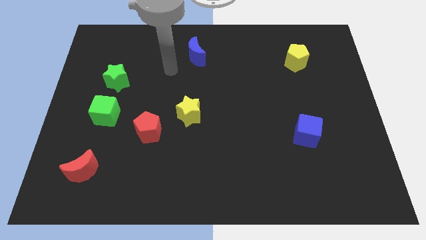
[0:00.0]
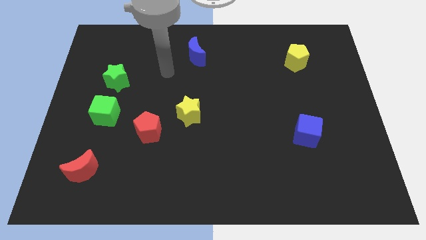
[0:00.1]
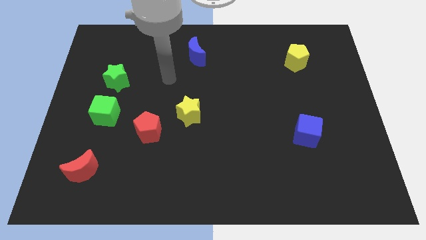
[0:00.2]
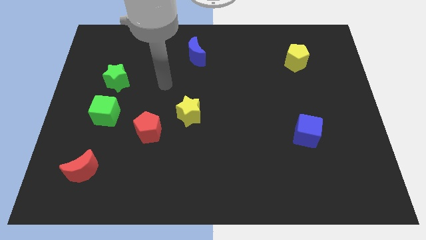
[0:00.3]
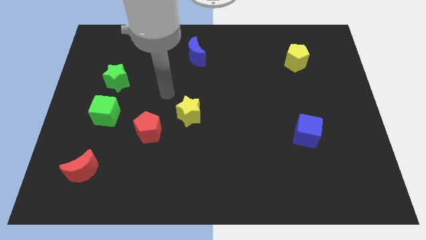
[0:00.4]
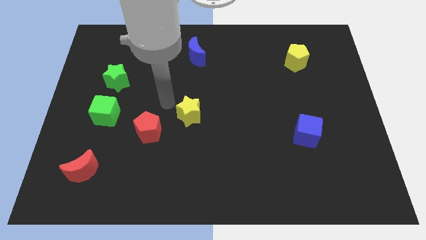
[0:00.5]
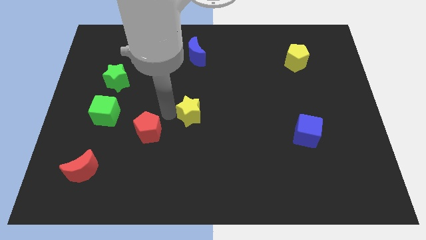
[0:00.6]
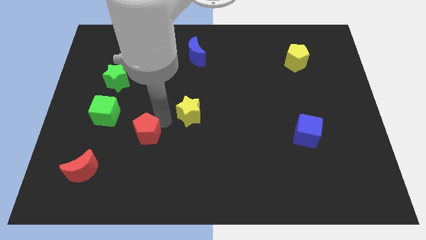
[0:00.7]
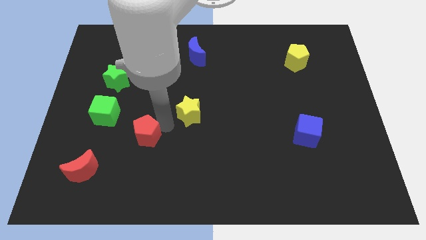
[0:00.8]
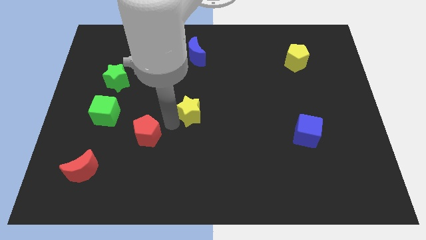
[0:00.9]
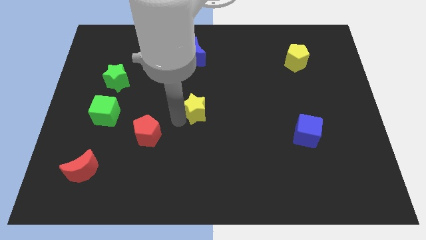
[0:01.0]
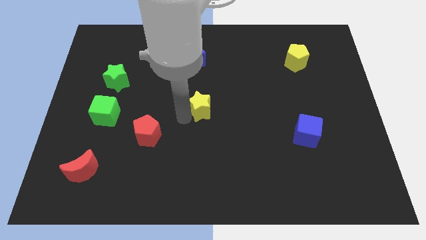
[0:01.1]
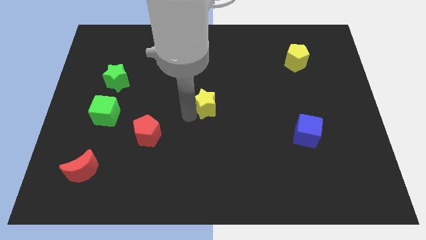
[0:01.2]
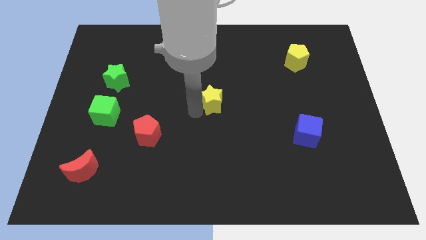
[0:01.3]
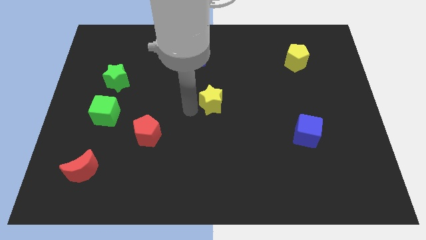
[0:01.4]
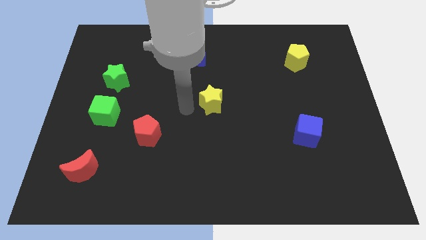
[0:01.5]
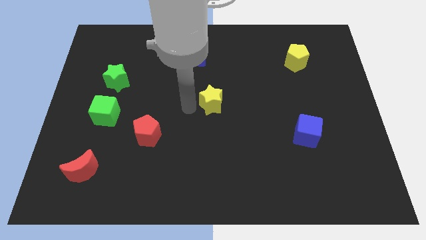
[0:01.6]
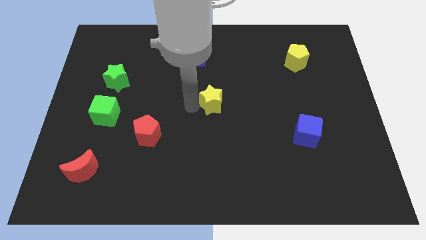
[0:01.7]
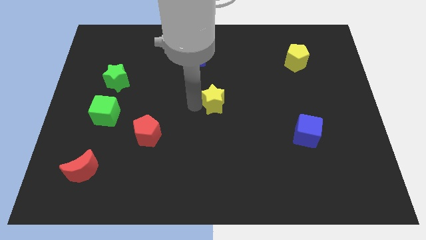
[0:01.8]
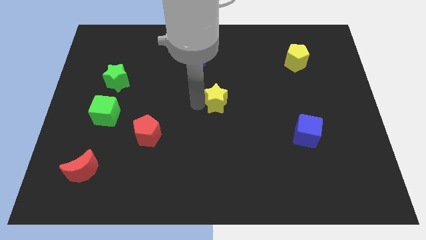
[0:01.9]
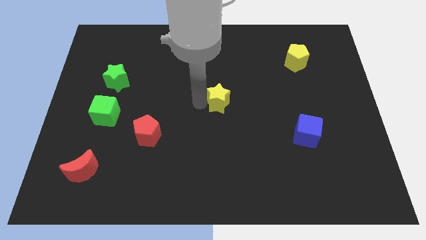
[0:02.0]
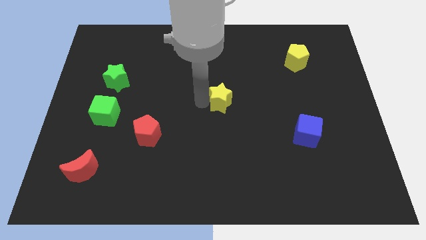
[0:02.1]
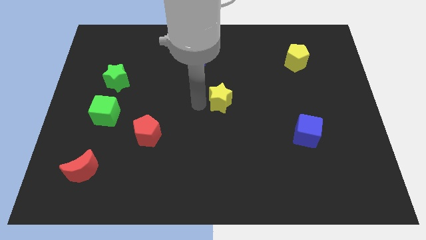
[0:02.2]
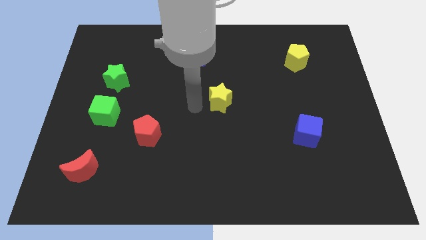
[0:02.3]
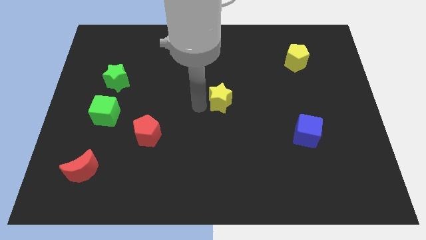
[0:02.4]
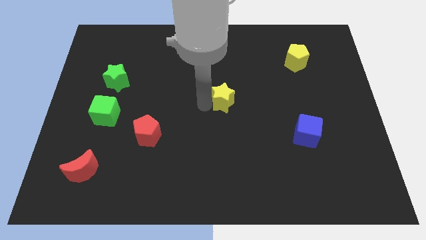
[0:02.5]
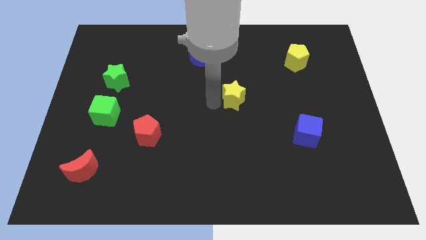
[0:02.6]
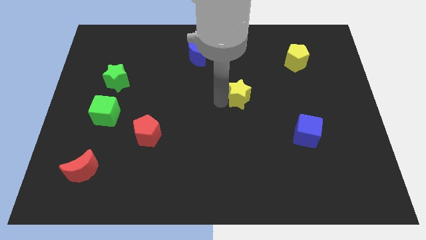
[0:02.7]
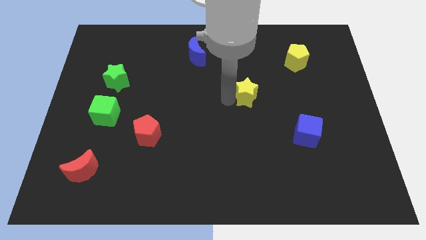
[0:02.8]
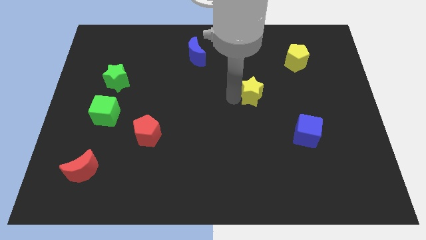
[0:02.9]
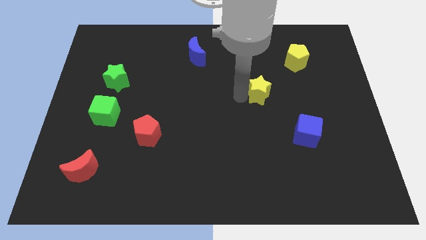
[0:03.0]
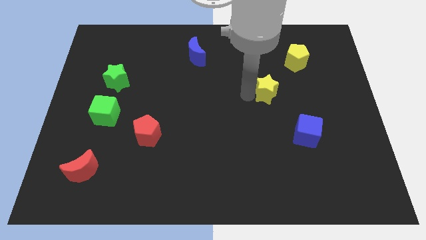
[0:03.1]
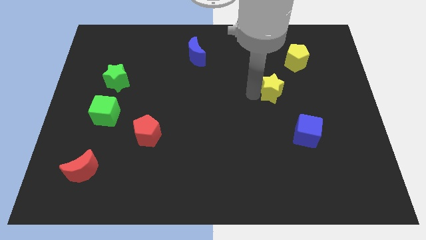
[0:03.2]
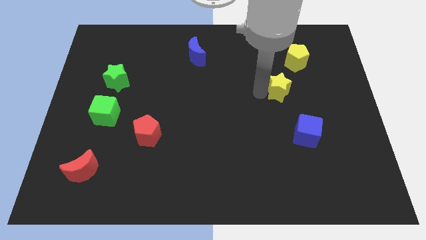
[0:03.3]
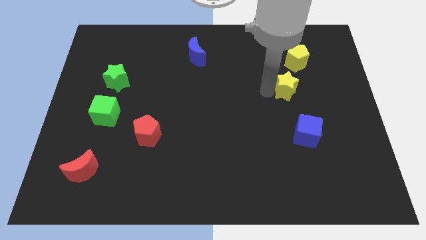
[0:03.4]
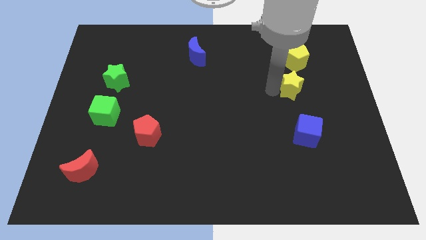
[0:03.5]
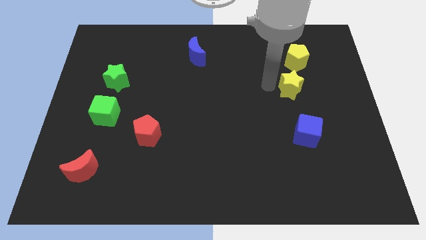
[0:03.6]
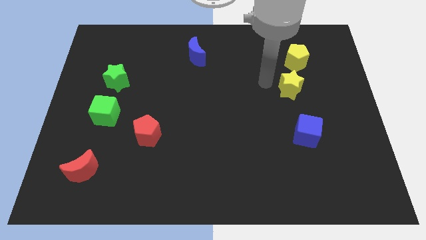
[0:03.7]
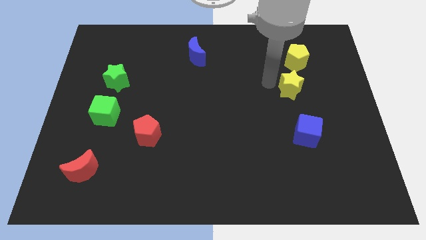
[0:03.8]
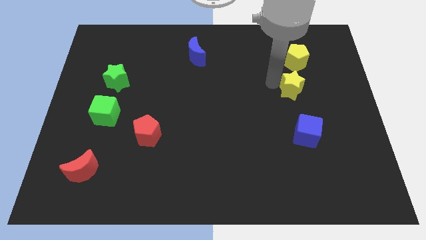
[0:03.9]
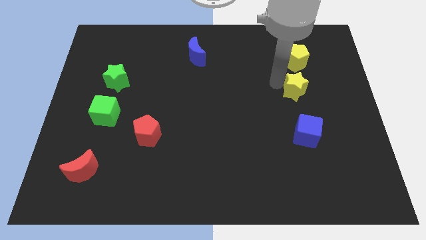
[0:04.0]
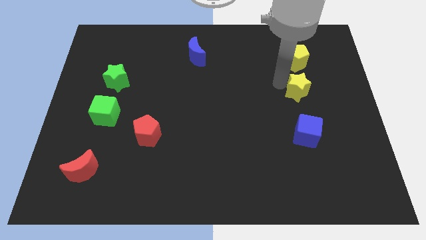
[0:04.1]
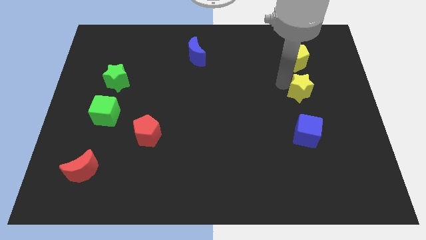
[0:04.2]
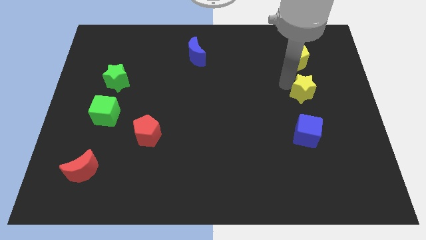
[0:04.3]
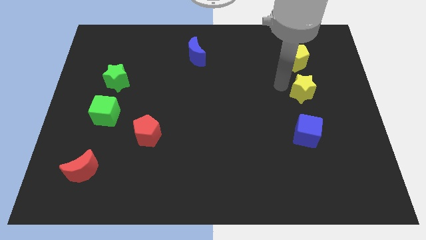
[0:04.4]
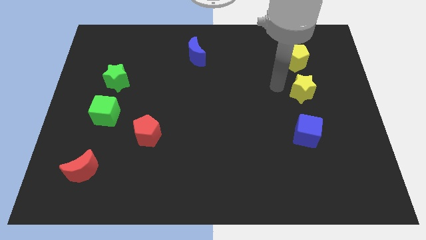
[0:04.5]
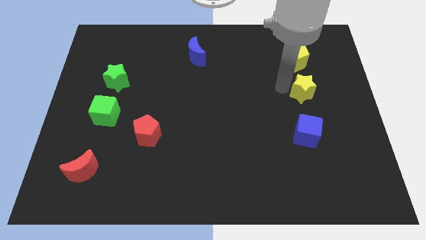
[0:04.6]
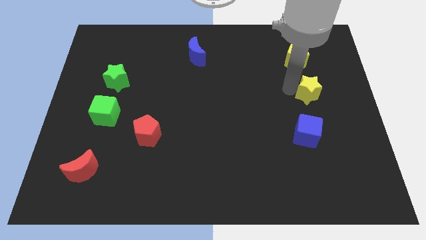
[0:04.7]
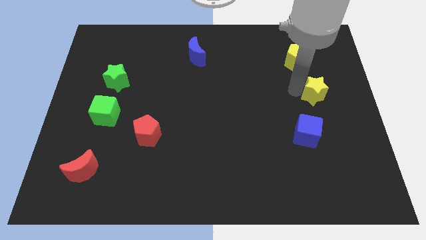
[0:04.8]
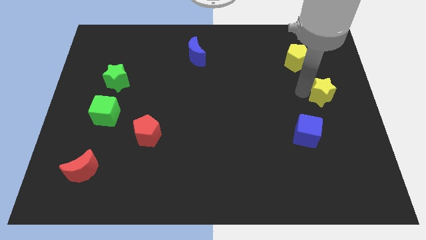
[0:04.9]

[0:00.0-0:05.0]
push the yellow star to the center right

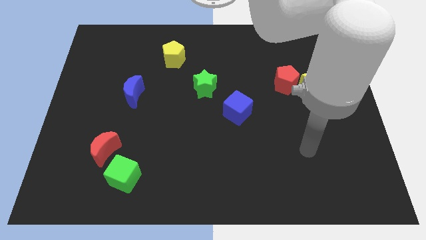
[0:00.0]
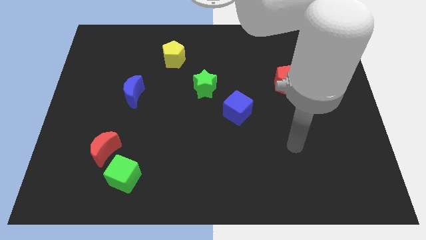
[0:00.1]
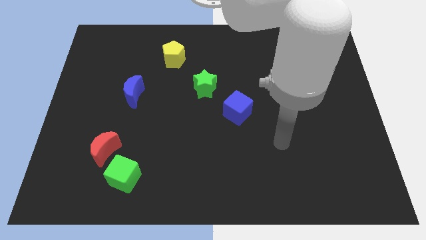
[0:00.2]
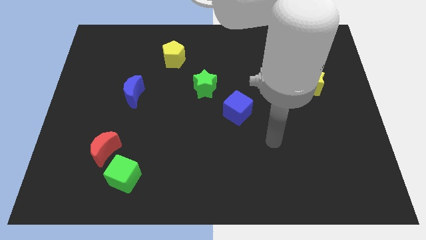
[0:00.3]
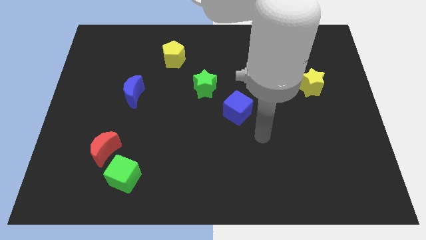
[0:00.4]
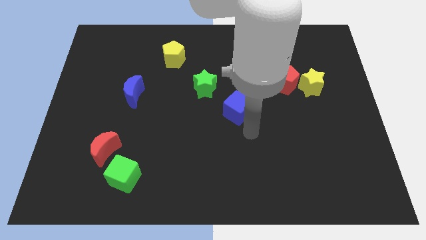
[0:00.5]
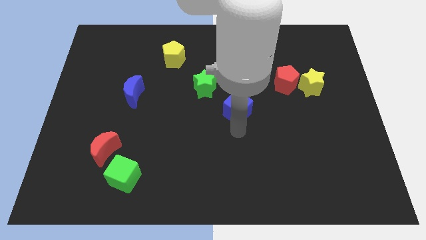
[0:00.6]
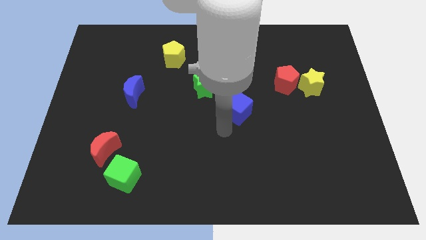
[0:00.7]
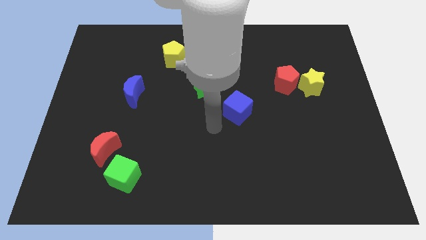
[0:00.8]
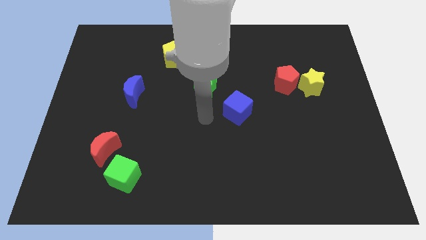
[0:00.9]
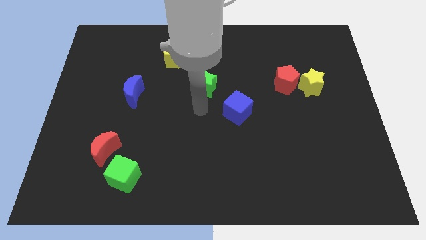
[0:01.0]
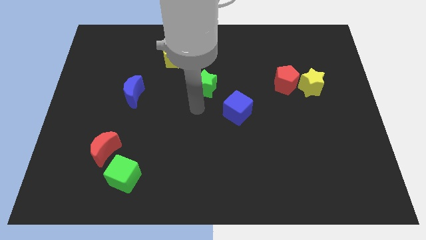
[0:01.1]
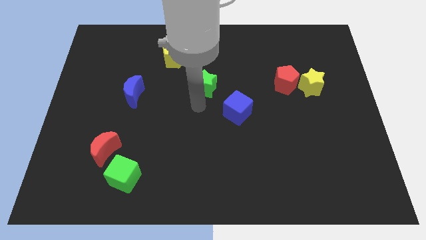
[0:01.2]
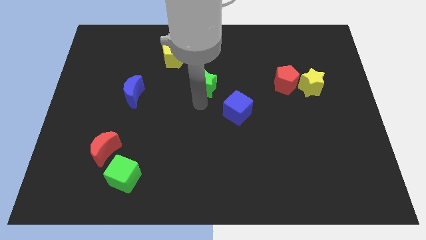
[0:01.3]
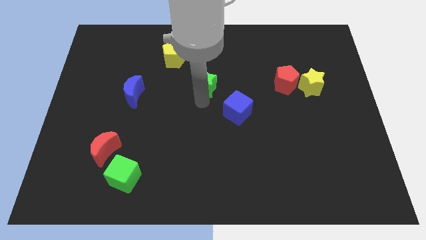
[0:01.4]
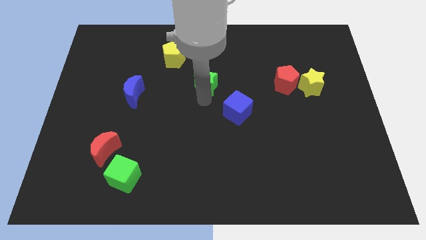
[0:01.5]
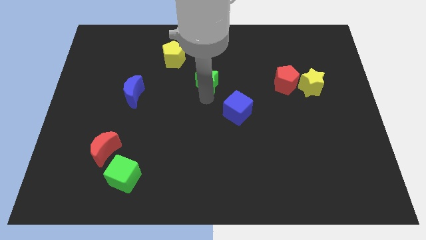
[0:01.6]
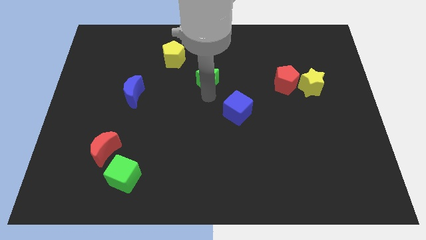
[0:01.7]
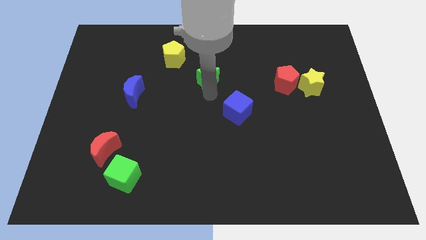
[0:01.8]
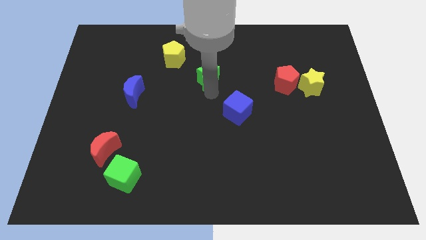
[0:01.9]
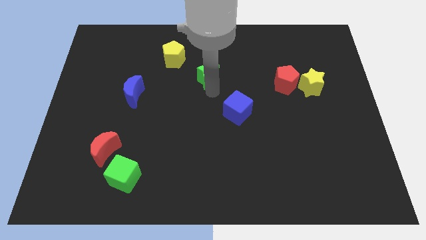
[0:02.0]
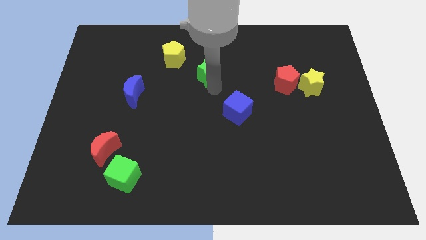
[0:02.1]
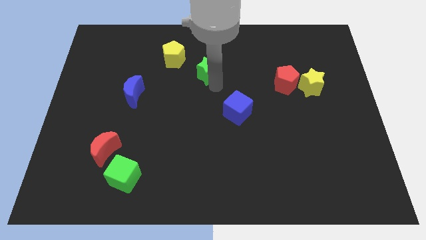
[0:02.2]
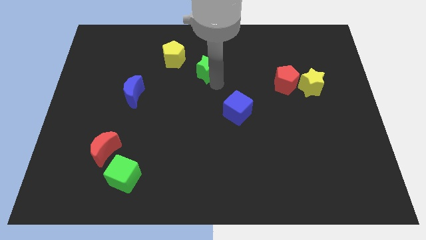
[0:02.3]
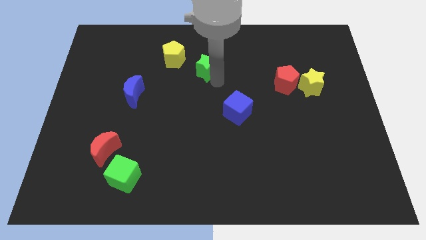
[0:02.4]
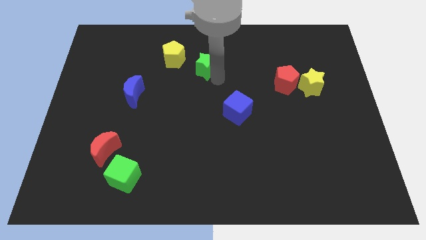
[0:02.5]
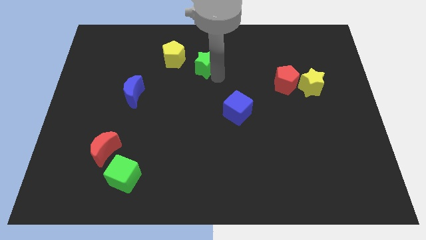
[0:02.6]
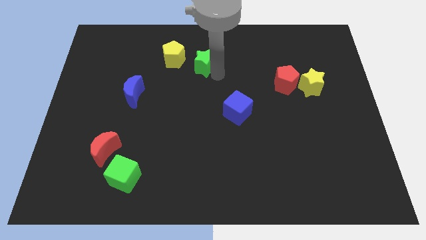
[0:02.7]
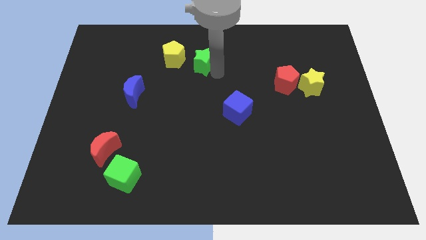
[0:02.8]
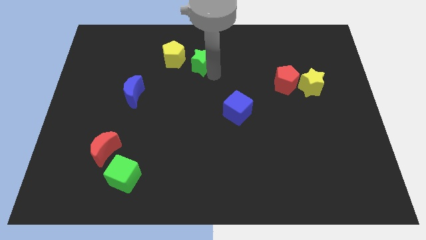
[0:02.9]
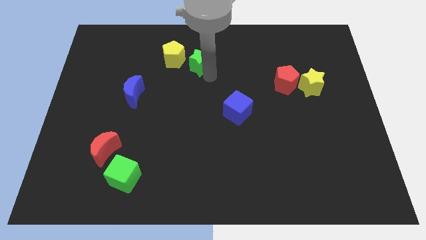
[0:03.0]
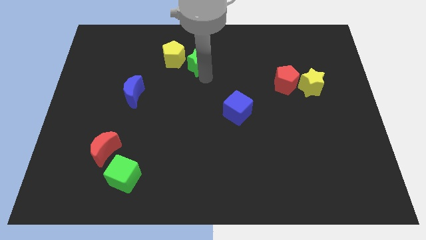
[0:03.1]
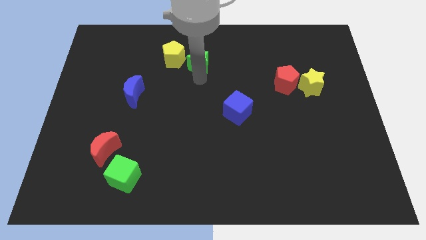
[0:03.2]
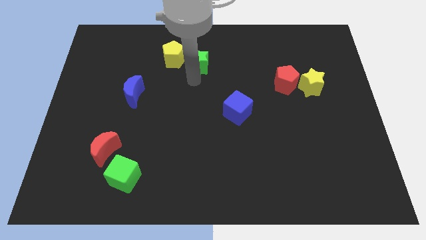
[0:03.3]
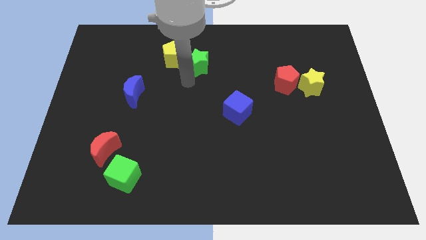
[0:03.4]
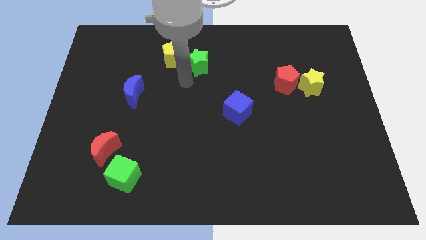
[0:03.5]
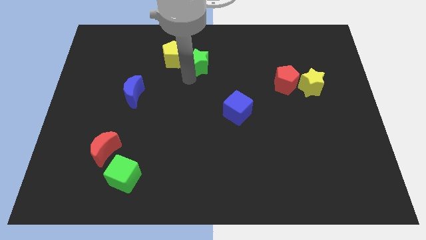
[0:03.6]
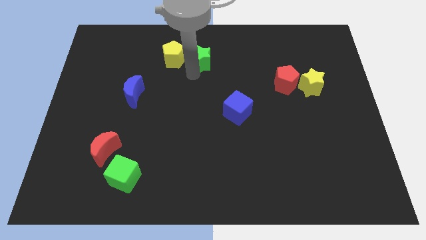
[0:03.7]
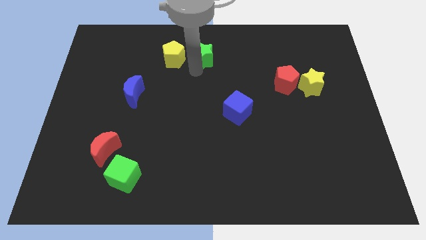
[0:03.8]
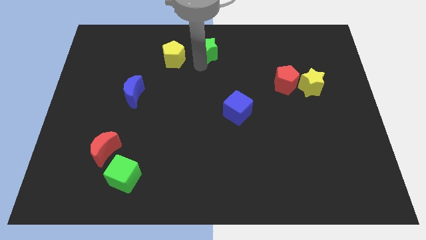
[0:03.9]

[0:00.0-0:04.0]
put the green star to the top
